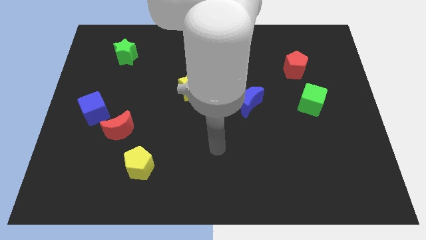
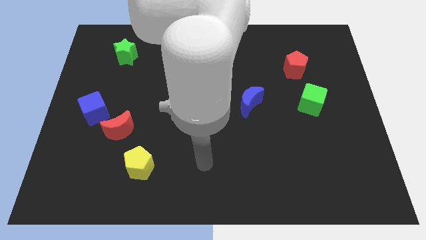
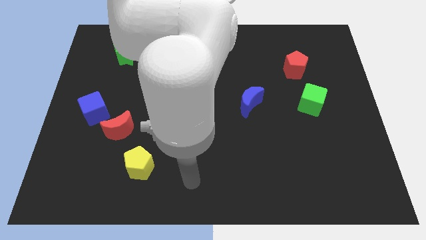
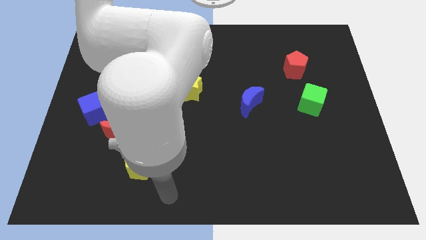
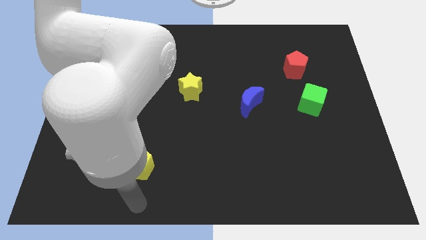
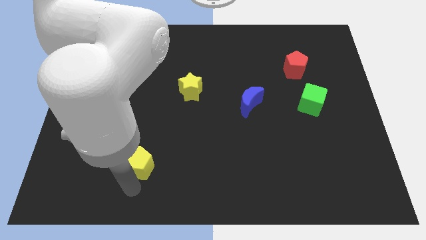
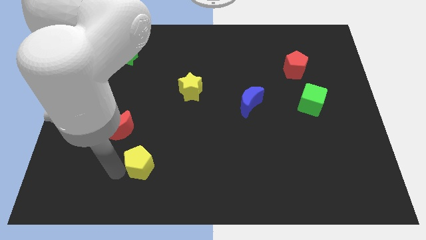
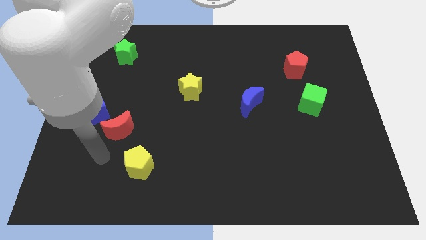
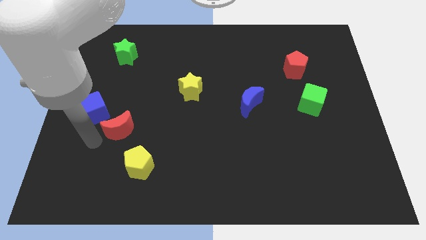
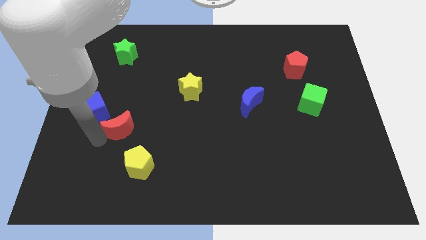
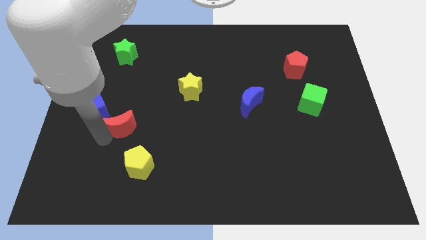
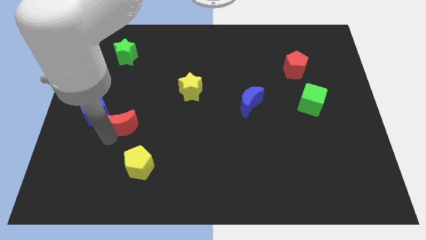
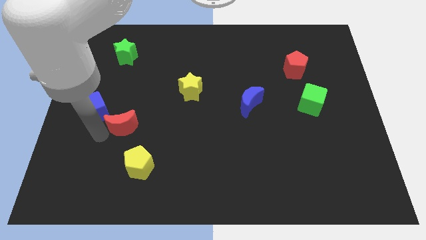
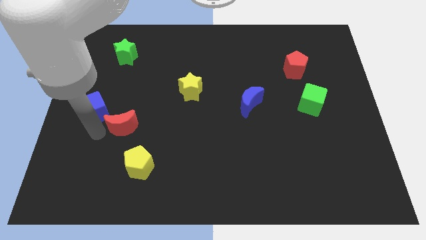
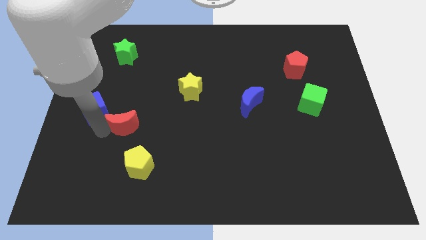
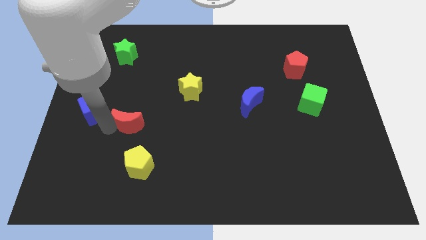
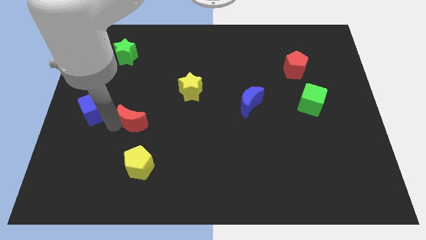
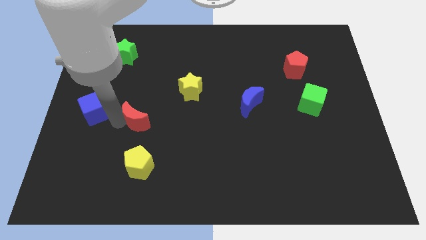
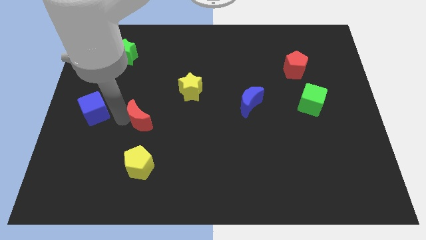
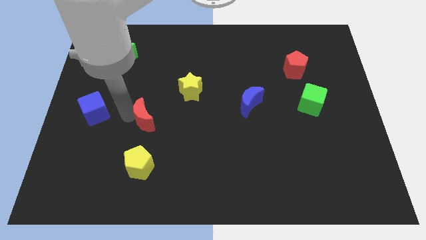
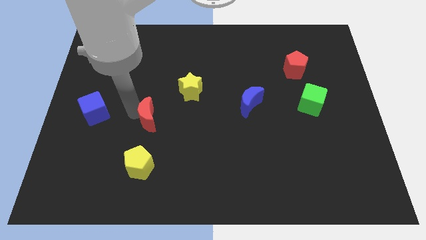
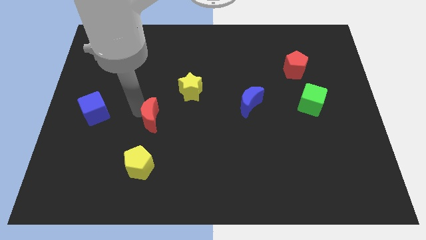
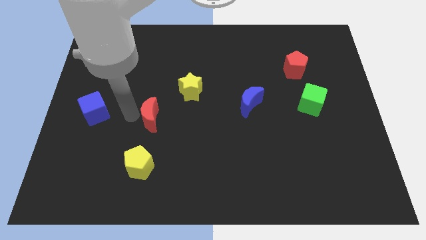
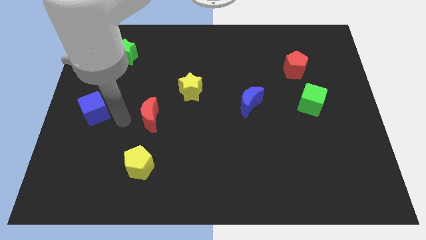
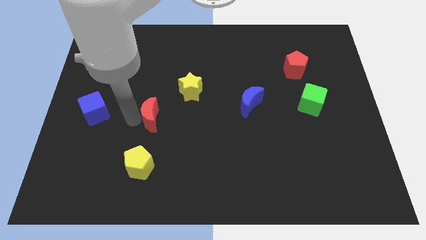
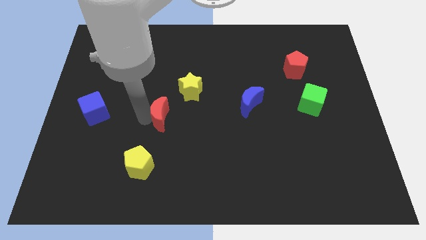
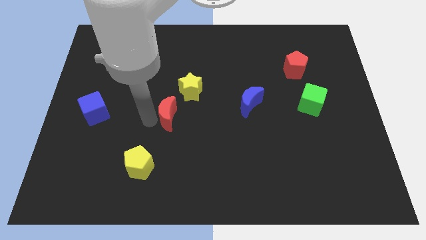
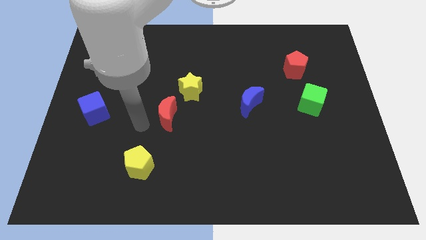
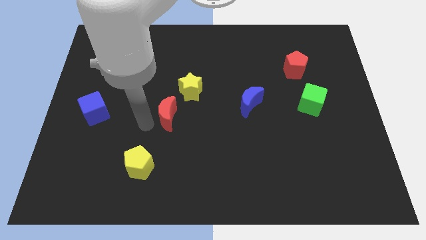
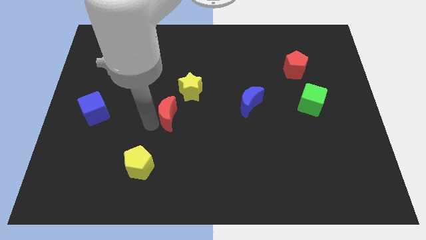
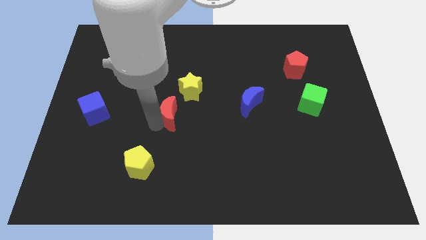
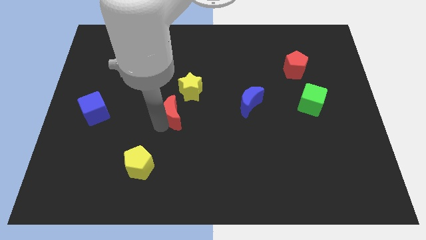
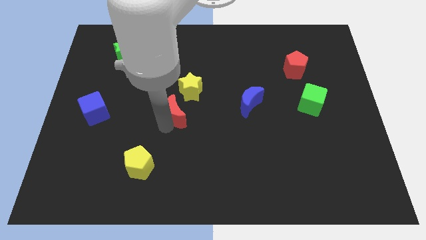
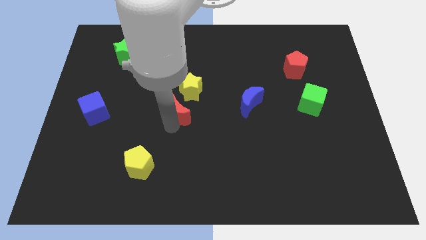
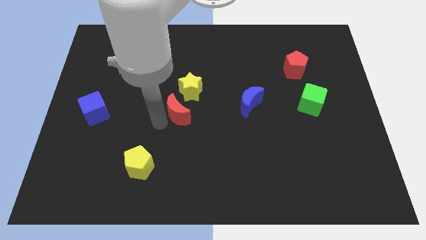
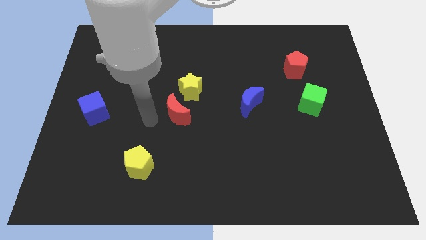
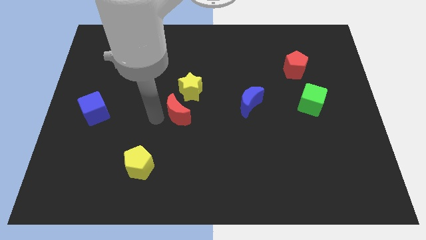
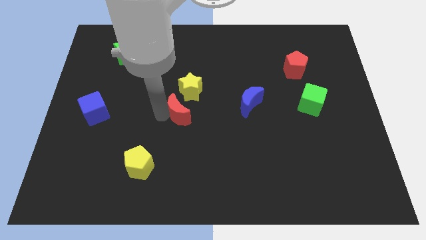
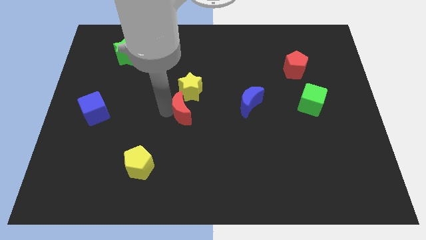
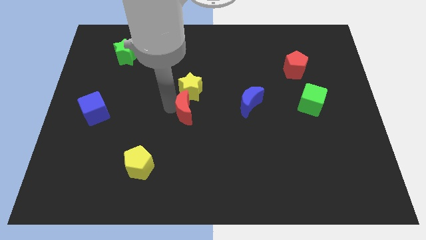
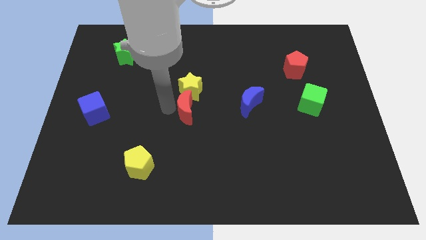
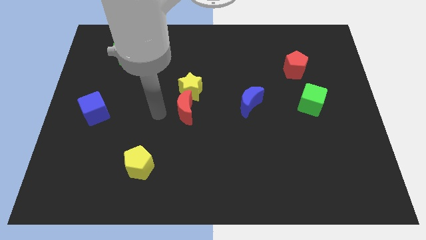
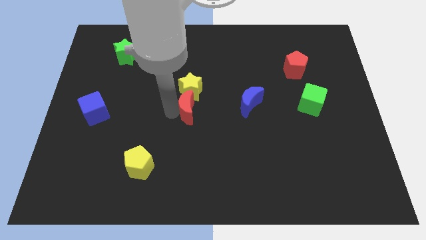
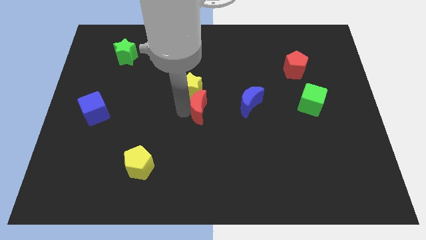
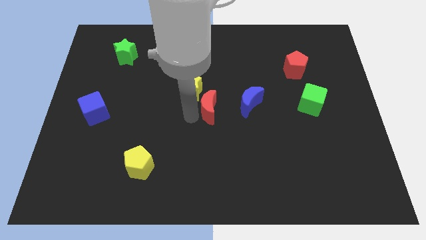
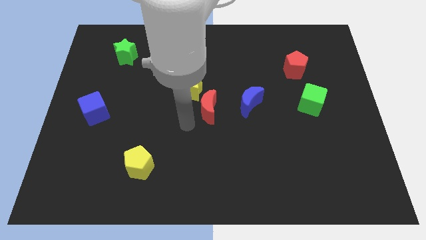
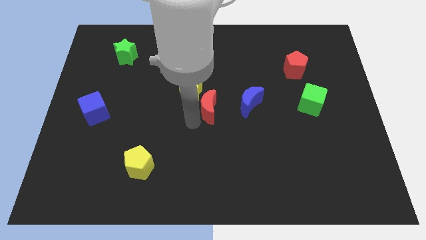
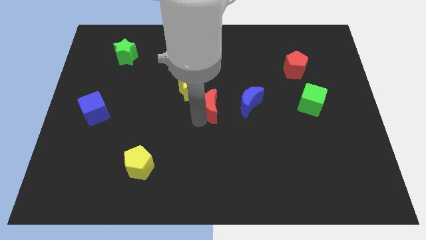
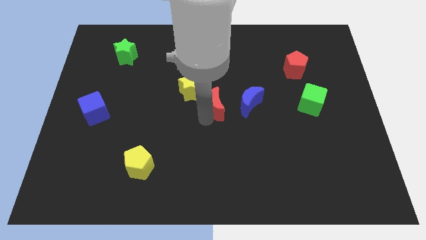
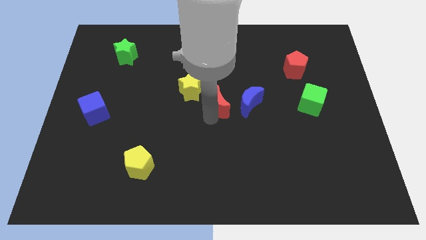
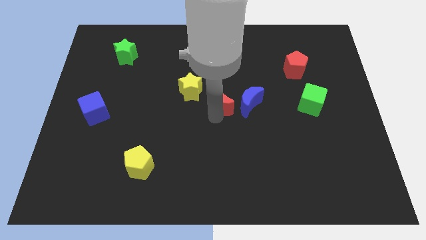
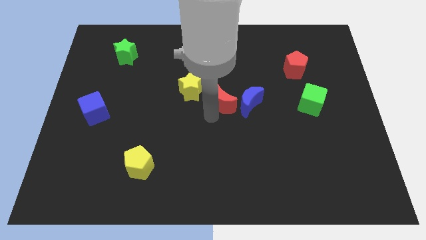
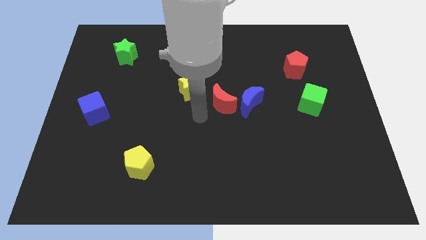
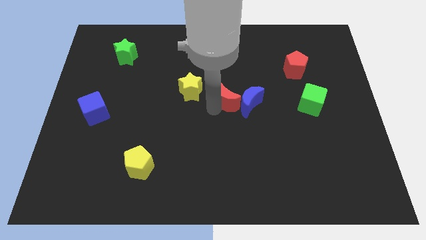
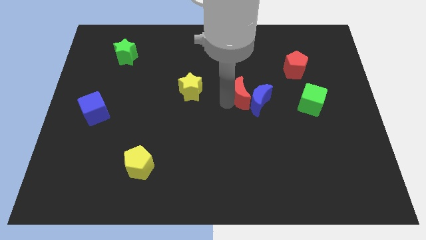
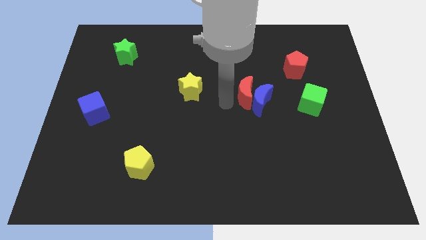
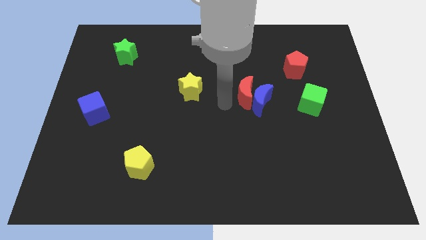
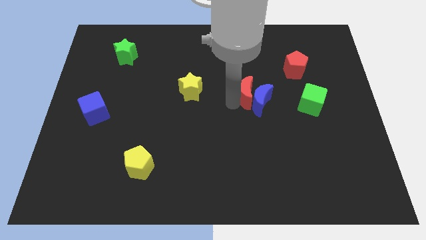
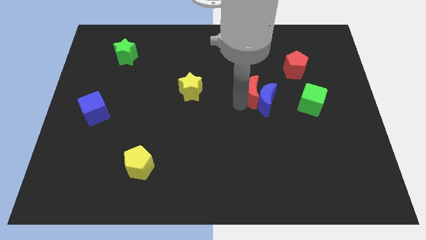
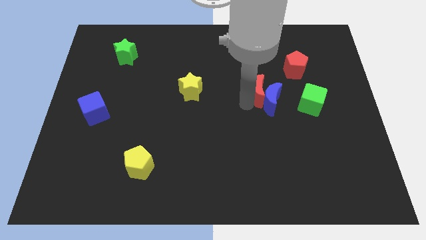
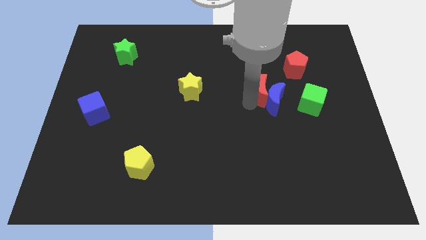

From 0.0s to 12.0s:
put the red moon diagonally down and to the left of the red pentagon

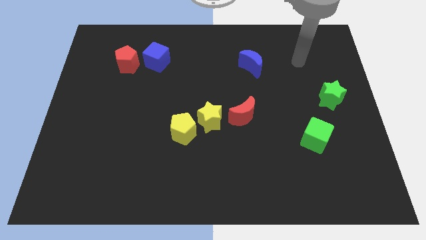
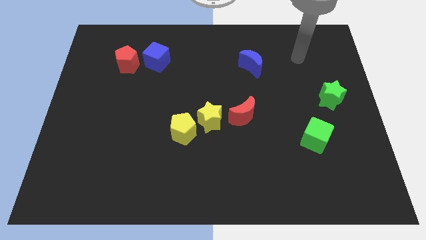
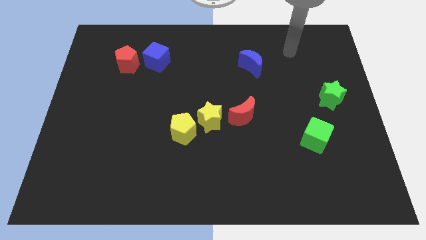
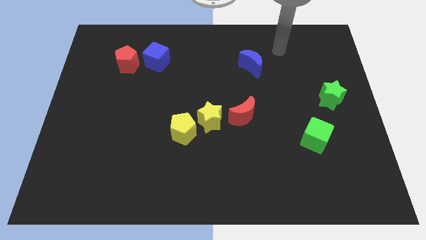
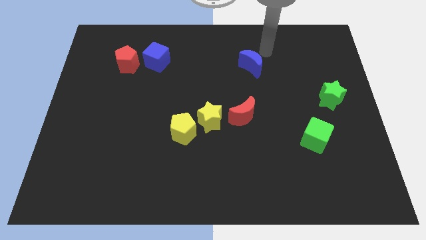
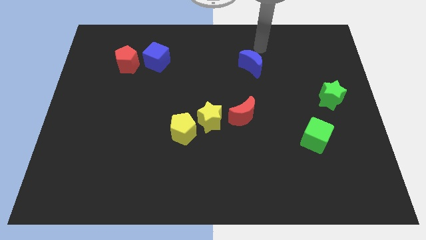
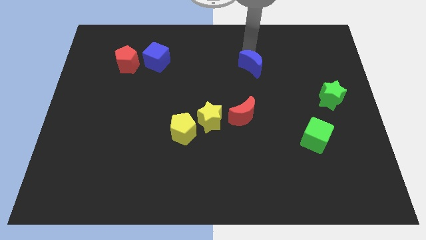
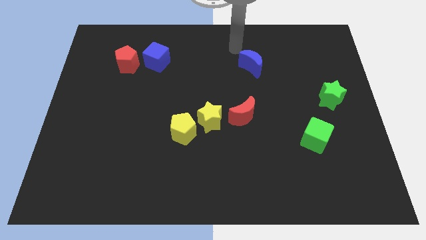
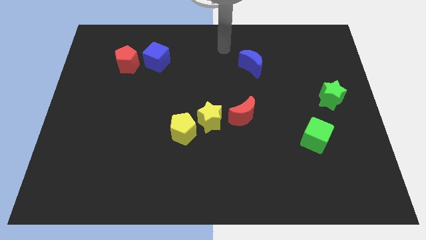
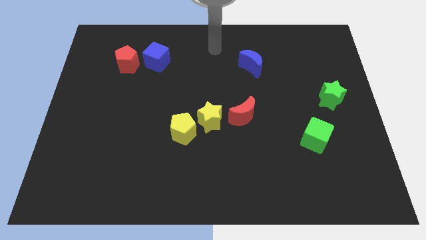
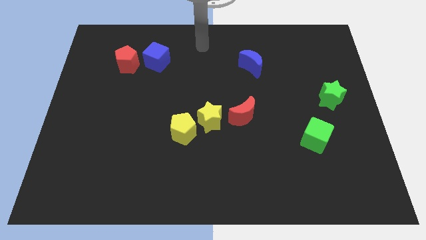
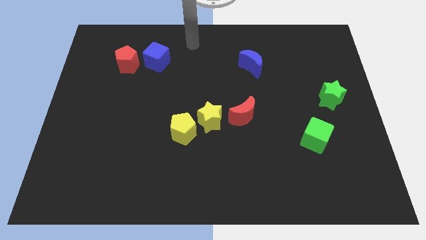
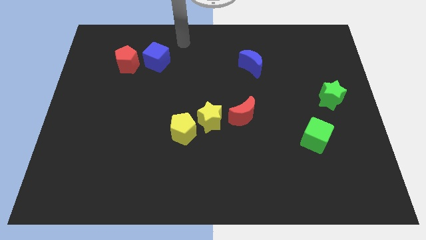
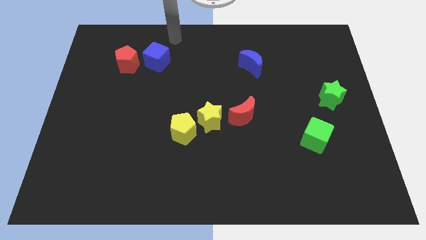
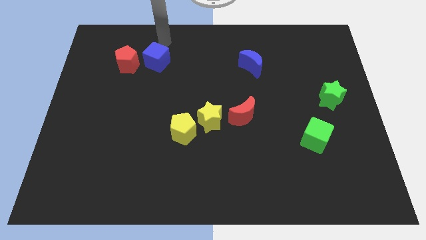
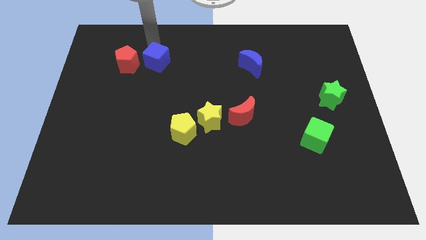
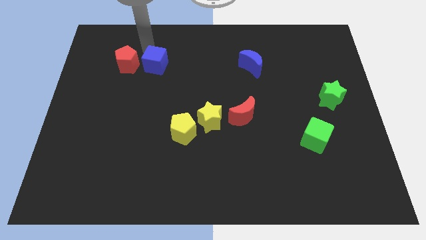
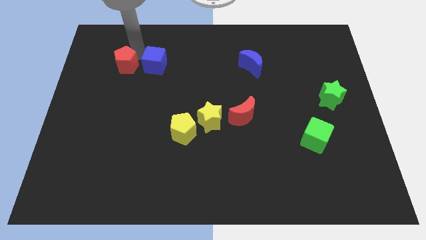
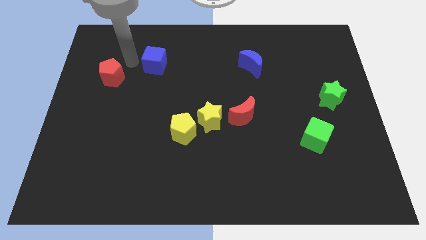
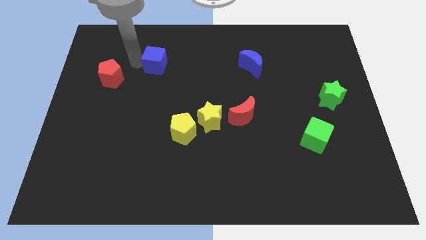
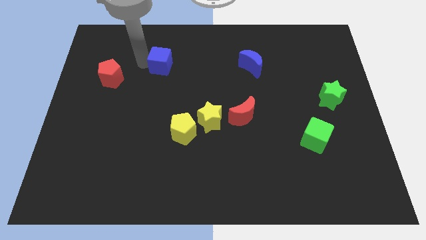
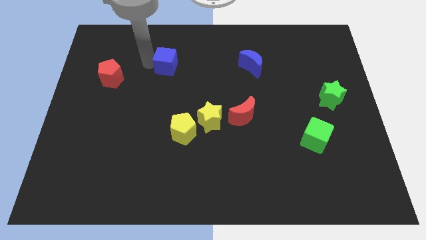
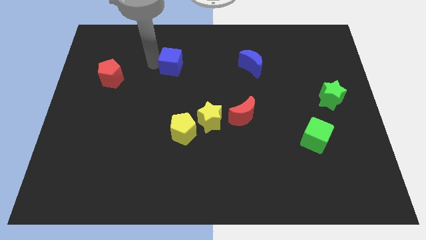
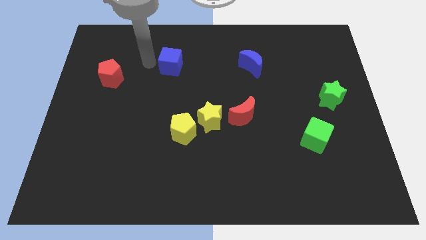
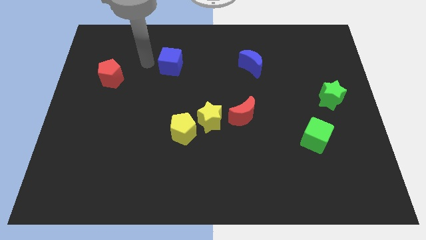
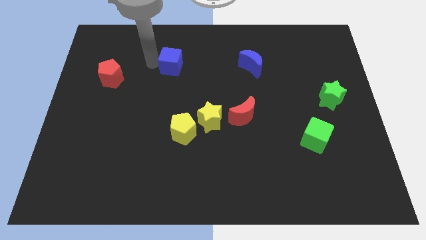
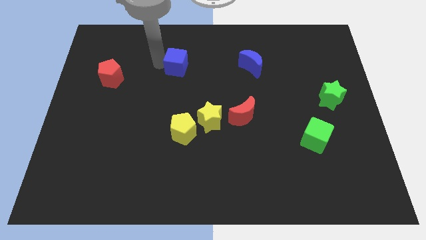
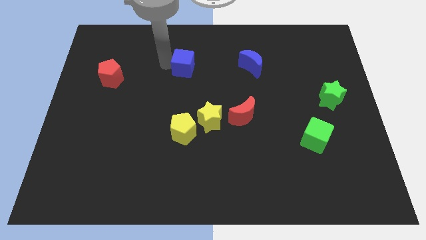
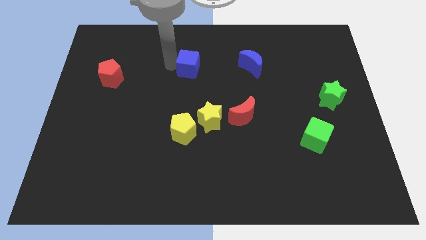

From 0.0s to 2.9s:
put the blue cube left of the blue moon
